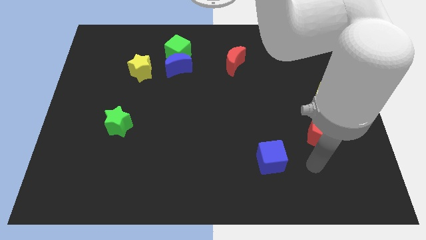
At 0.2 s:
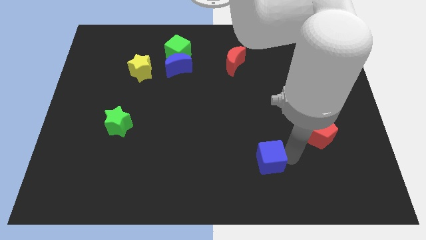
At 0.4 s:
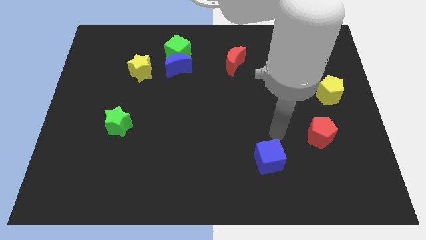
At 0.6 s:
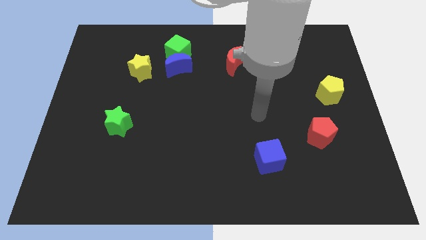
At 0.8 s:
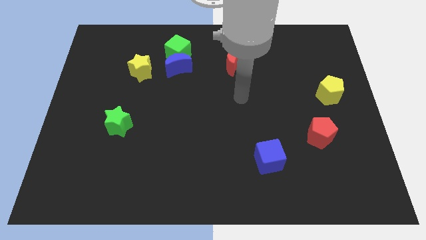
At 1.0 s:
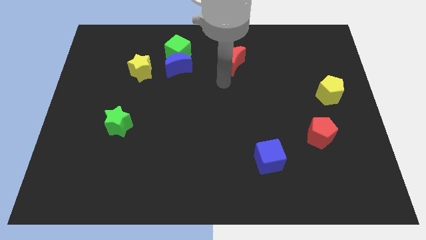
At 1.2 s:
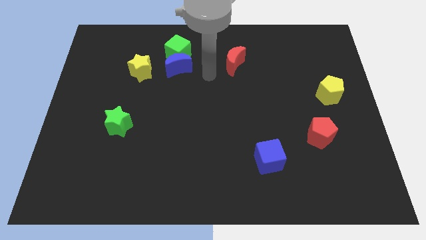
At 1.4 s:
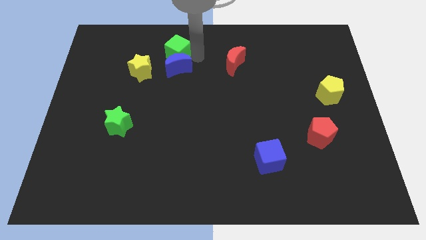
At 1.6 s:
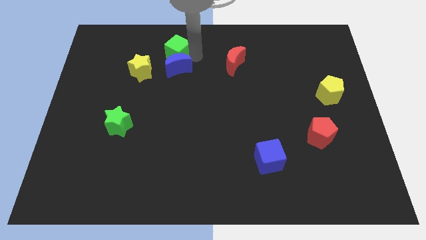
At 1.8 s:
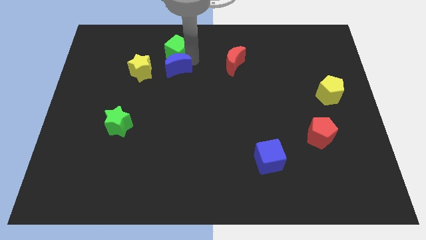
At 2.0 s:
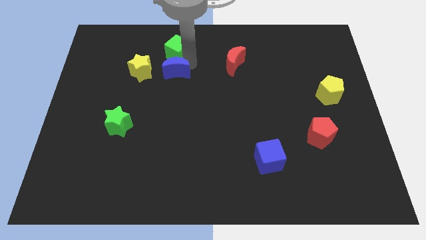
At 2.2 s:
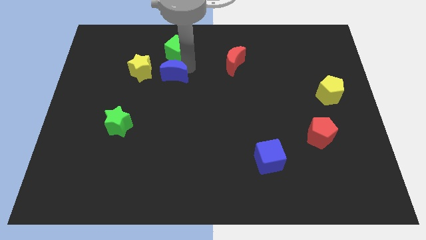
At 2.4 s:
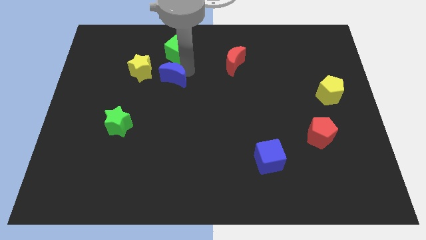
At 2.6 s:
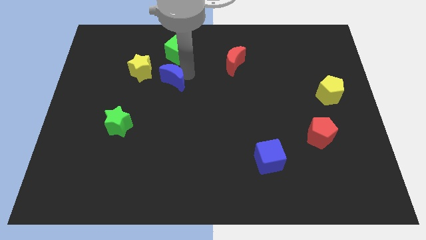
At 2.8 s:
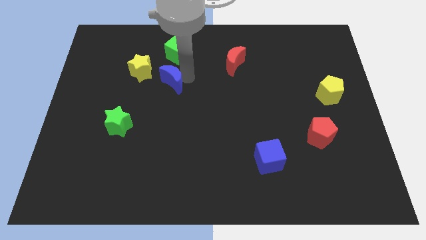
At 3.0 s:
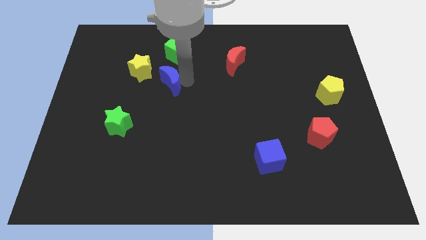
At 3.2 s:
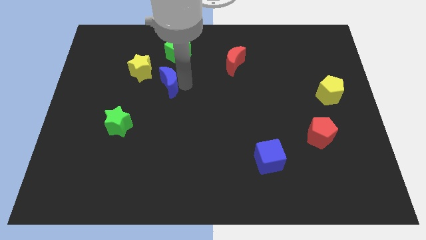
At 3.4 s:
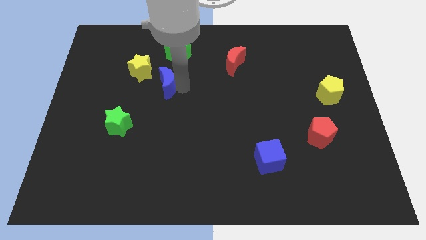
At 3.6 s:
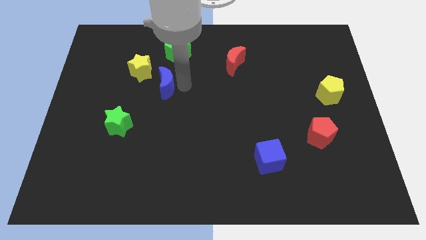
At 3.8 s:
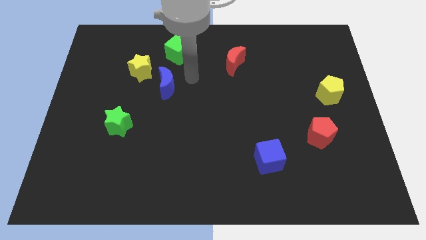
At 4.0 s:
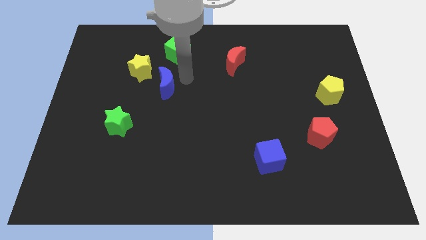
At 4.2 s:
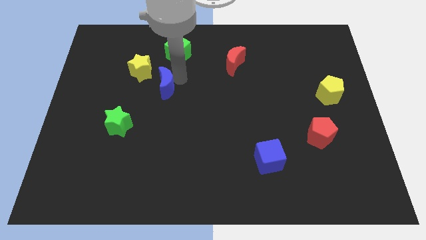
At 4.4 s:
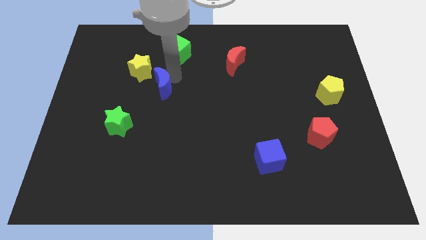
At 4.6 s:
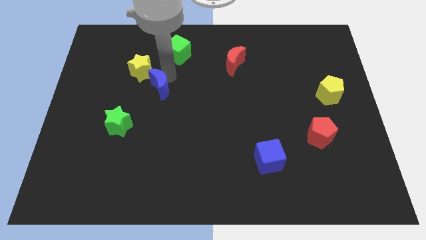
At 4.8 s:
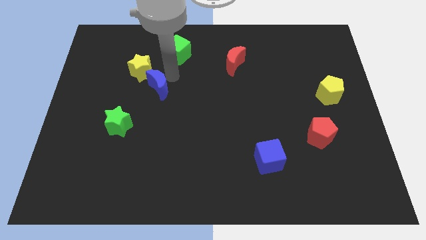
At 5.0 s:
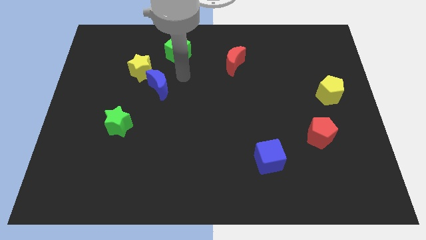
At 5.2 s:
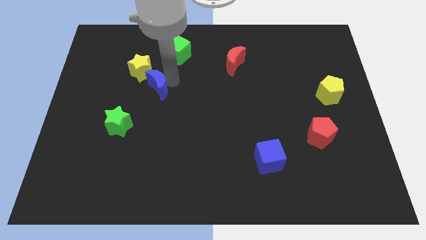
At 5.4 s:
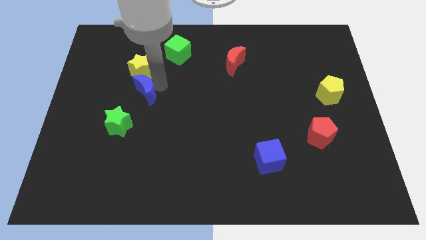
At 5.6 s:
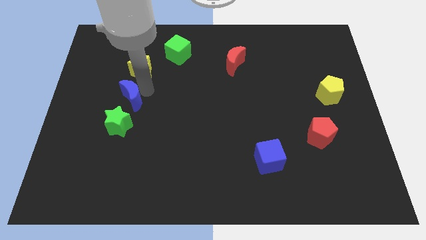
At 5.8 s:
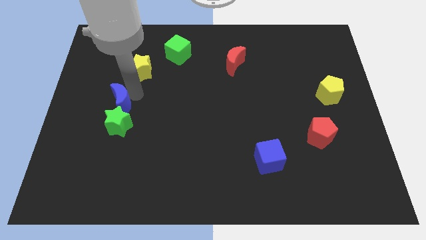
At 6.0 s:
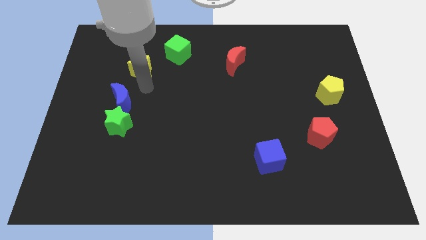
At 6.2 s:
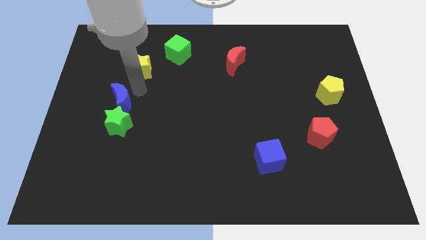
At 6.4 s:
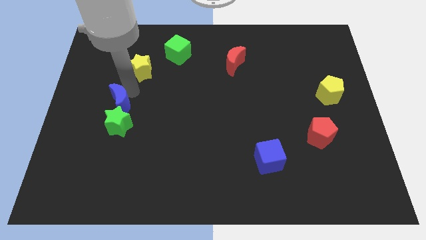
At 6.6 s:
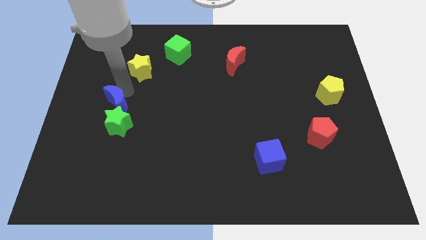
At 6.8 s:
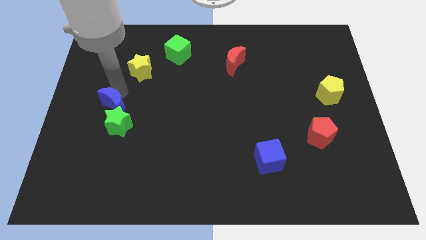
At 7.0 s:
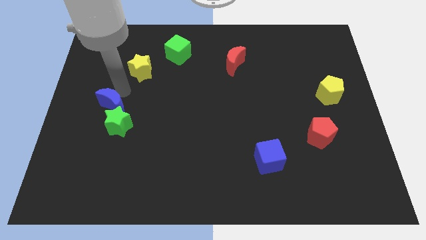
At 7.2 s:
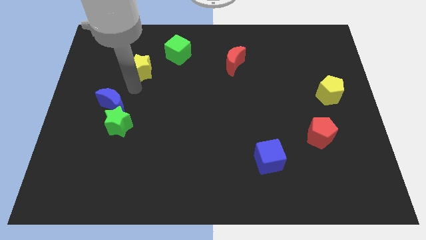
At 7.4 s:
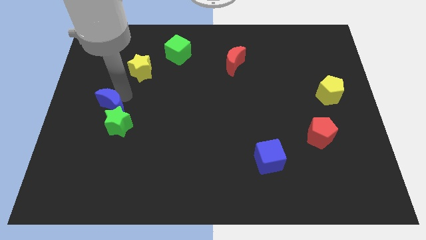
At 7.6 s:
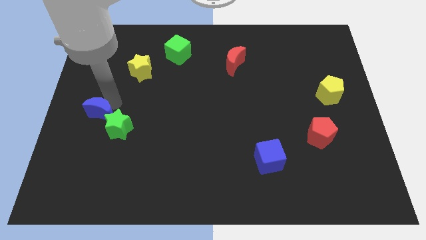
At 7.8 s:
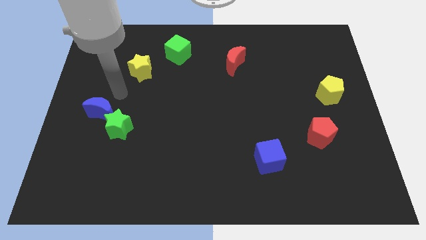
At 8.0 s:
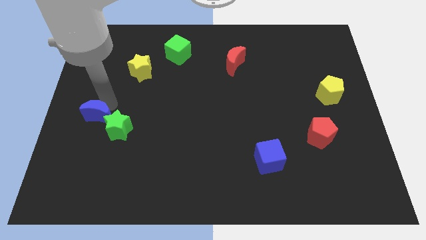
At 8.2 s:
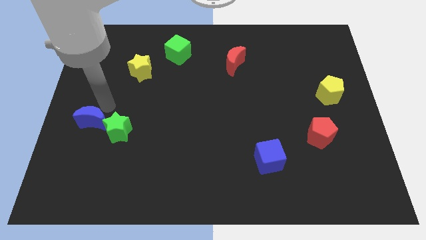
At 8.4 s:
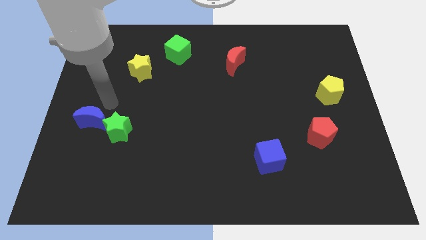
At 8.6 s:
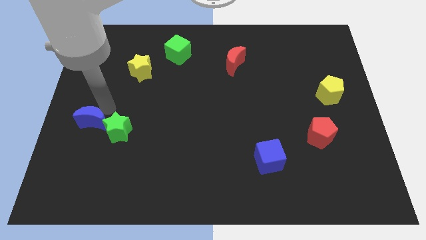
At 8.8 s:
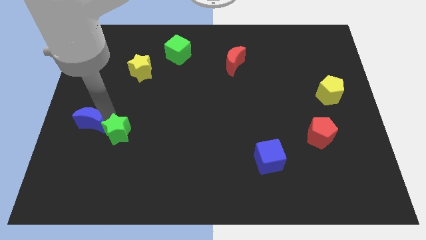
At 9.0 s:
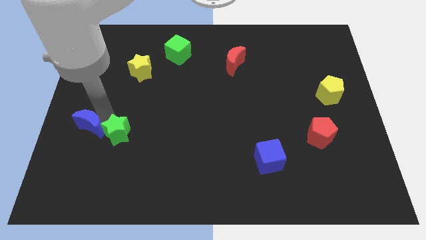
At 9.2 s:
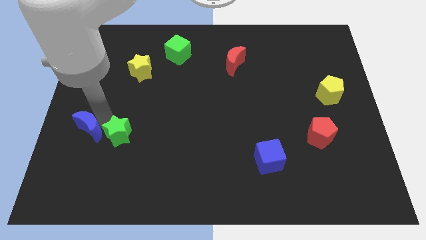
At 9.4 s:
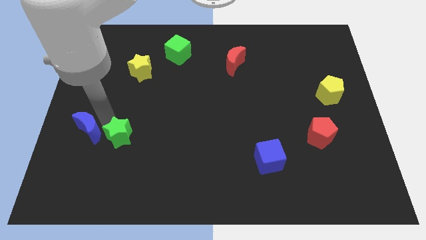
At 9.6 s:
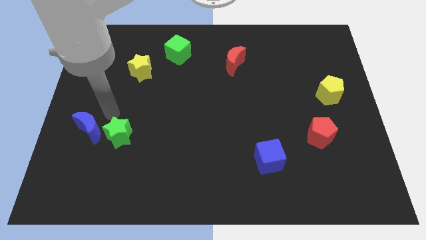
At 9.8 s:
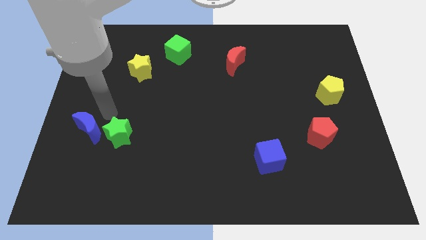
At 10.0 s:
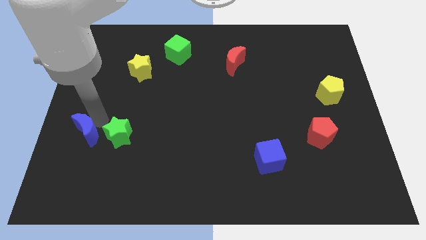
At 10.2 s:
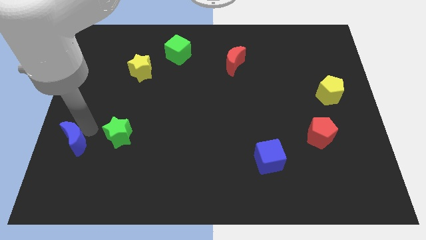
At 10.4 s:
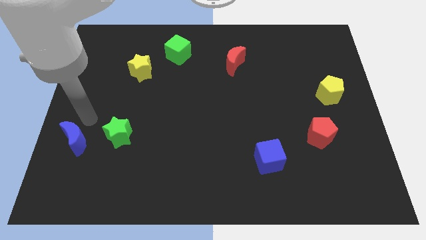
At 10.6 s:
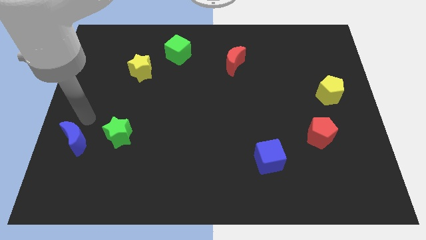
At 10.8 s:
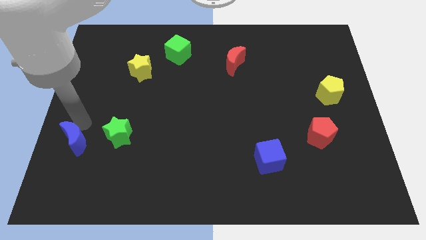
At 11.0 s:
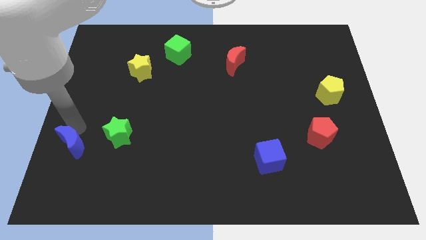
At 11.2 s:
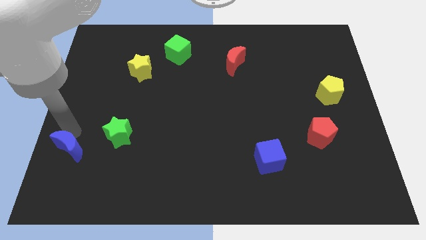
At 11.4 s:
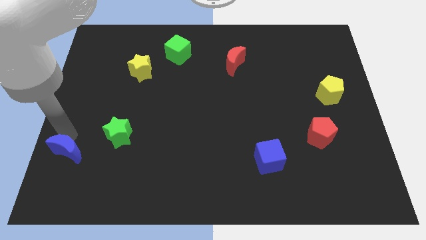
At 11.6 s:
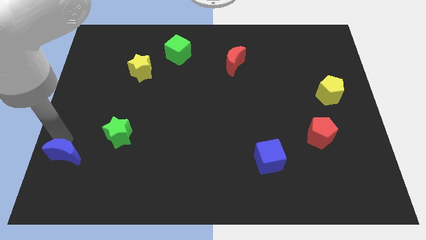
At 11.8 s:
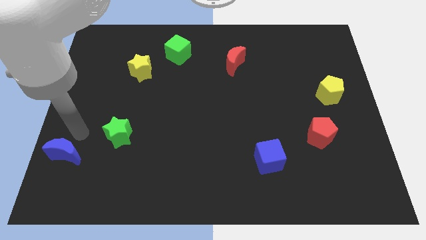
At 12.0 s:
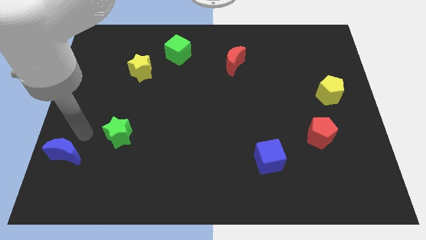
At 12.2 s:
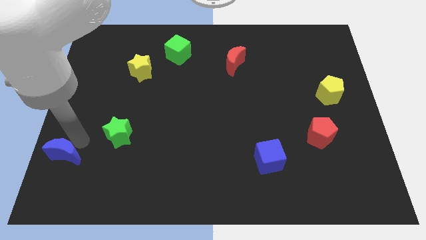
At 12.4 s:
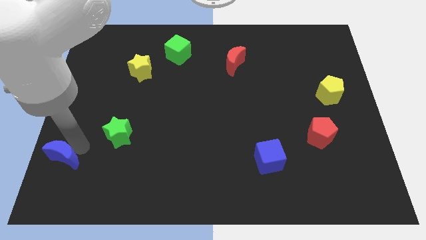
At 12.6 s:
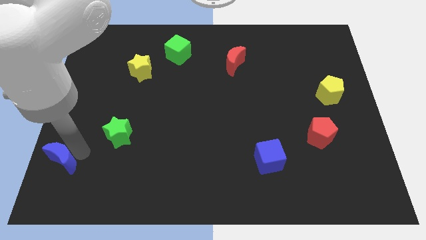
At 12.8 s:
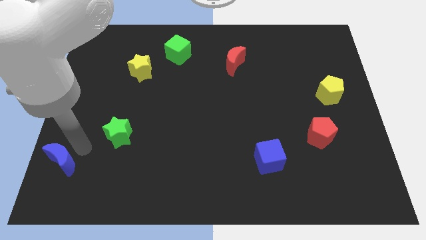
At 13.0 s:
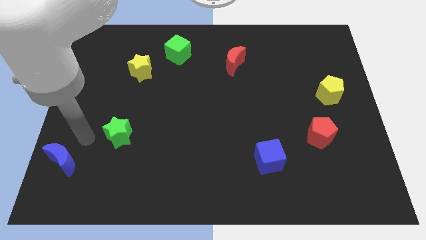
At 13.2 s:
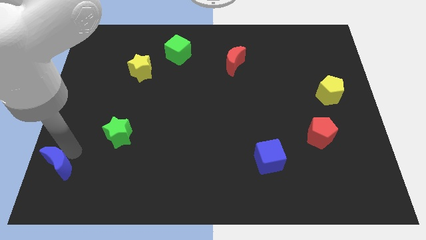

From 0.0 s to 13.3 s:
push the blue moon to the bottom left
